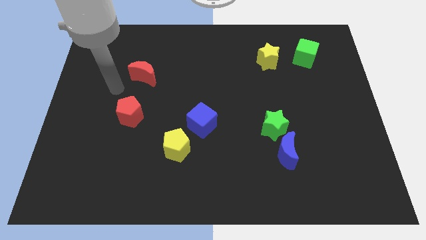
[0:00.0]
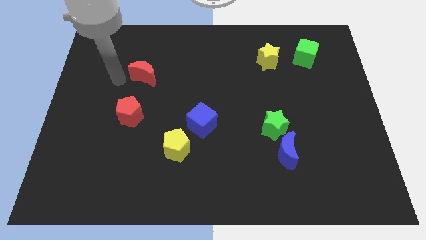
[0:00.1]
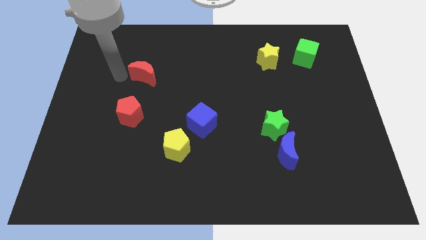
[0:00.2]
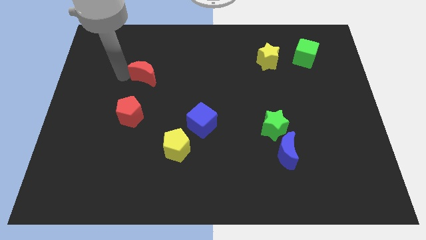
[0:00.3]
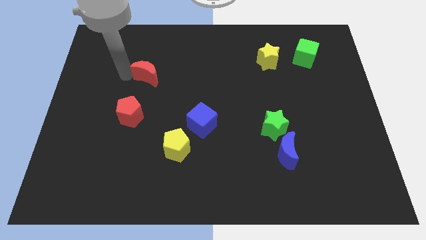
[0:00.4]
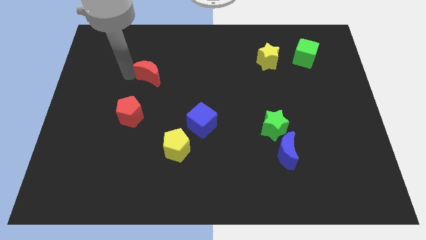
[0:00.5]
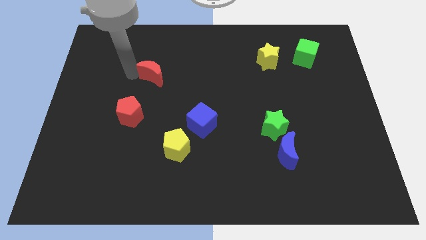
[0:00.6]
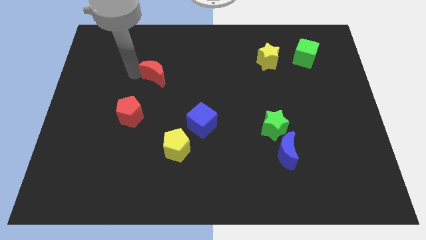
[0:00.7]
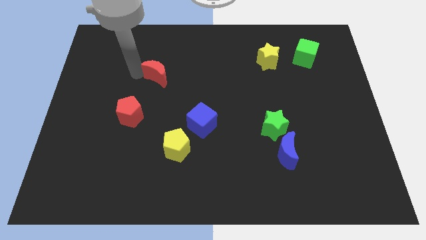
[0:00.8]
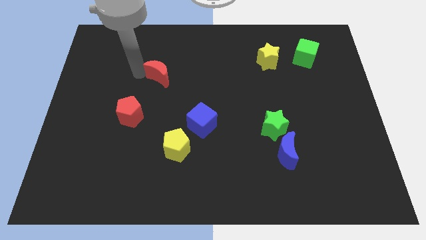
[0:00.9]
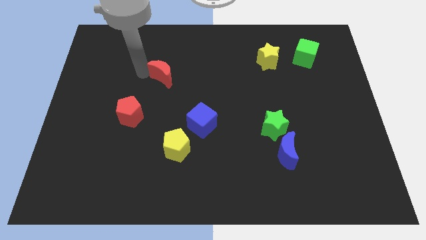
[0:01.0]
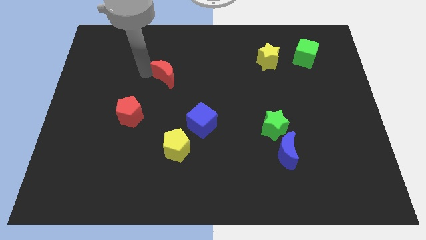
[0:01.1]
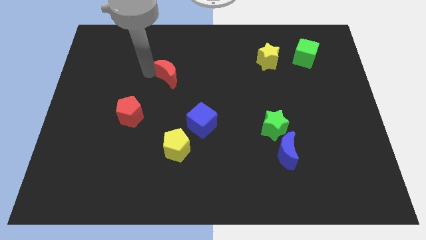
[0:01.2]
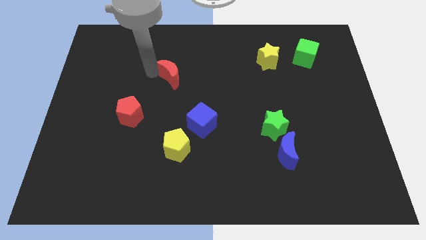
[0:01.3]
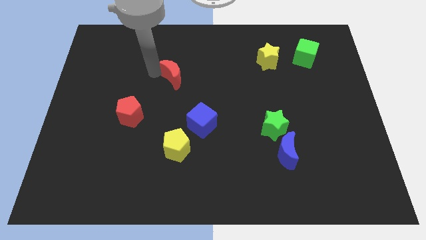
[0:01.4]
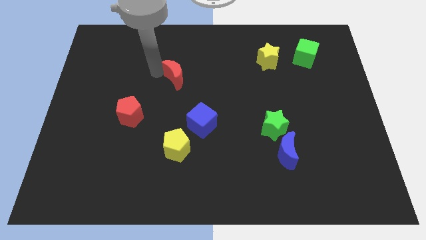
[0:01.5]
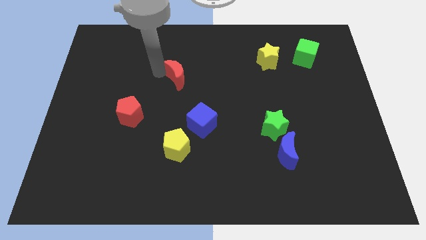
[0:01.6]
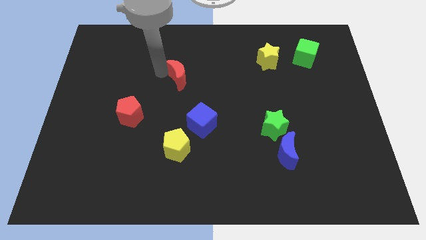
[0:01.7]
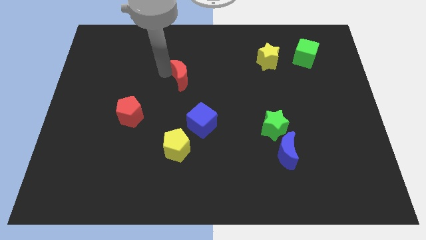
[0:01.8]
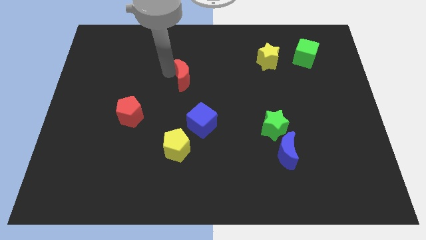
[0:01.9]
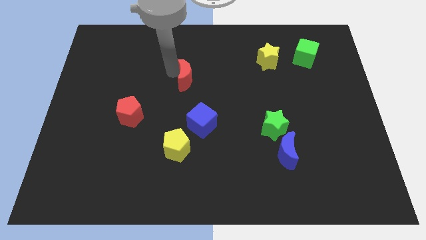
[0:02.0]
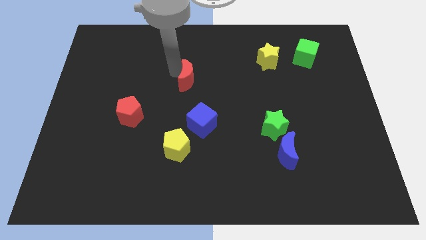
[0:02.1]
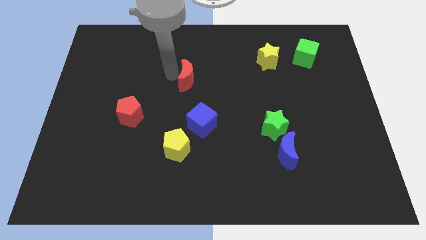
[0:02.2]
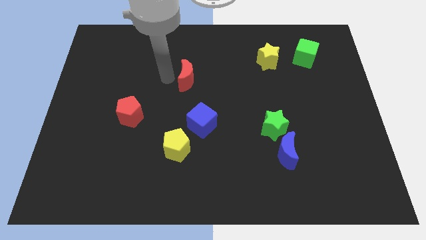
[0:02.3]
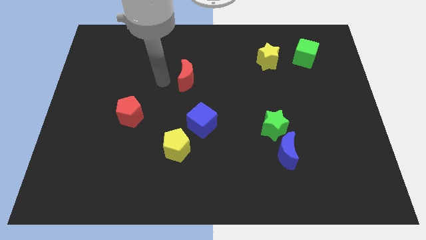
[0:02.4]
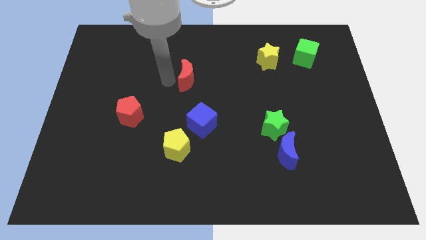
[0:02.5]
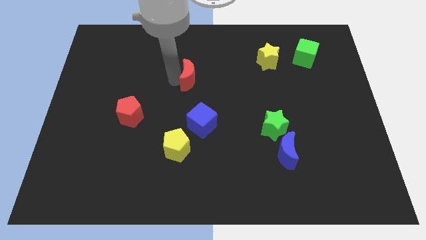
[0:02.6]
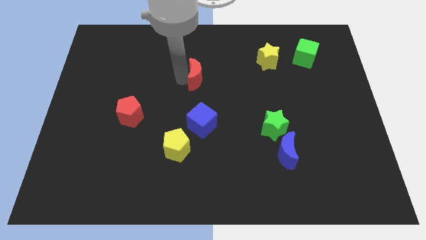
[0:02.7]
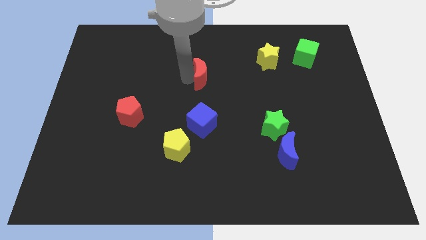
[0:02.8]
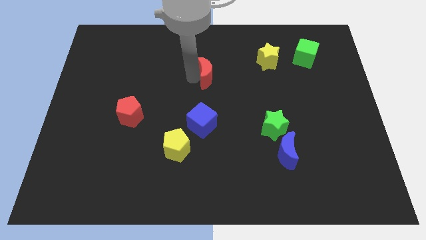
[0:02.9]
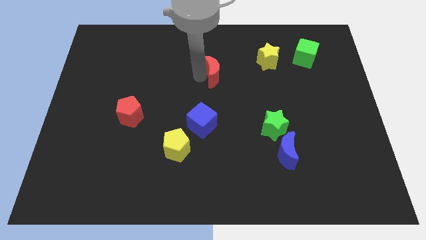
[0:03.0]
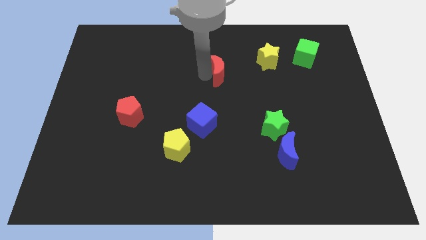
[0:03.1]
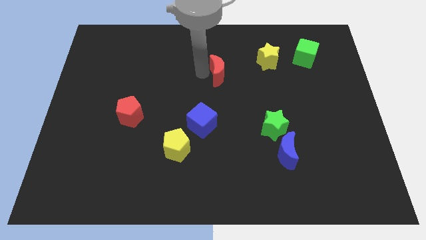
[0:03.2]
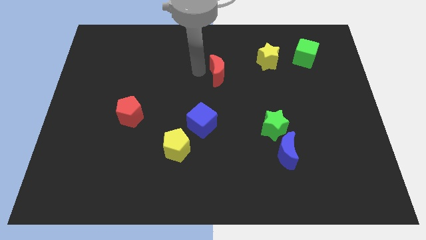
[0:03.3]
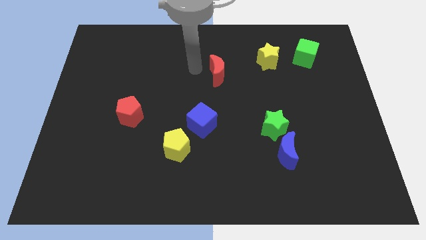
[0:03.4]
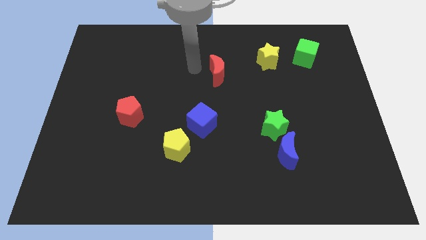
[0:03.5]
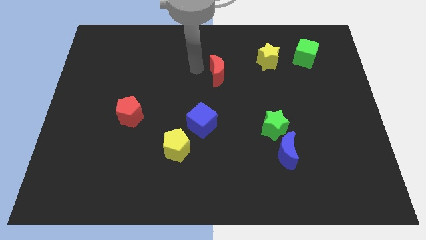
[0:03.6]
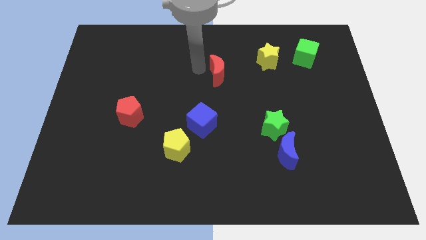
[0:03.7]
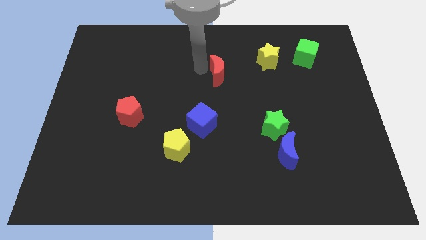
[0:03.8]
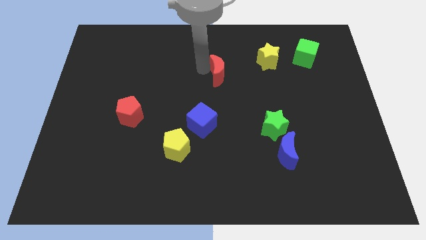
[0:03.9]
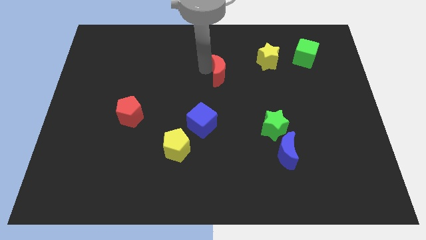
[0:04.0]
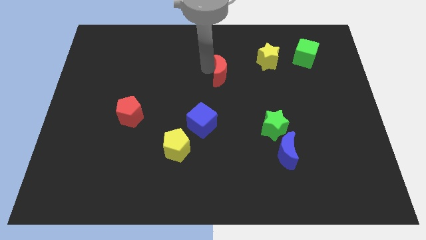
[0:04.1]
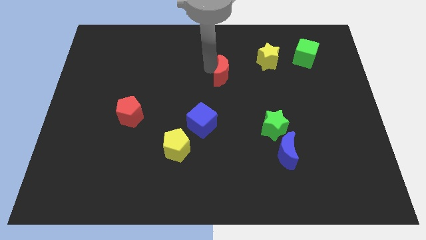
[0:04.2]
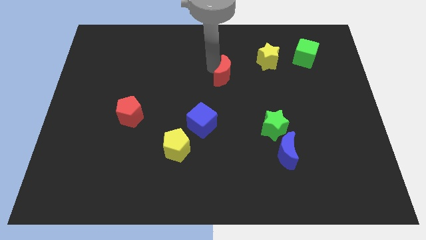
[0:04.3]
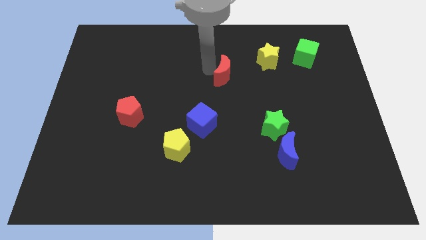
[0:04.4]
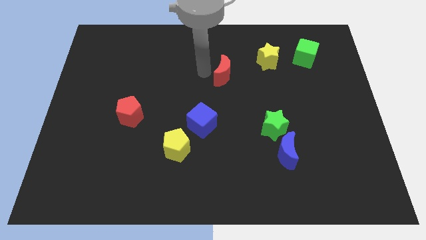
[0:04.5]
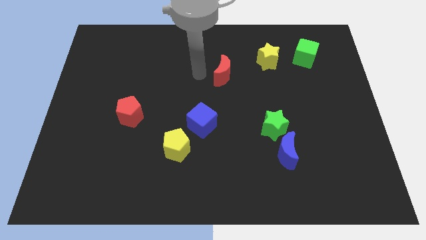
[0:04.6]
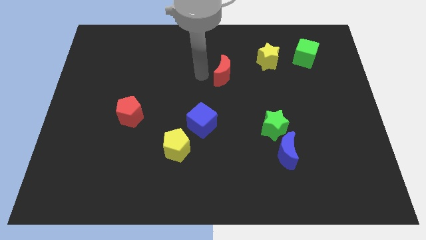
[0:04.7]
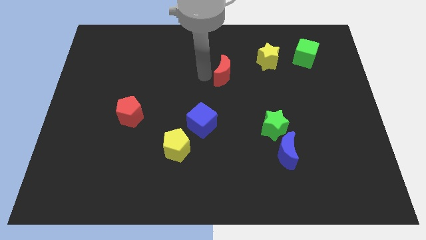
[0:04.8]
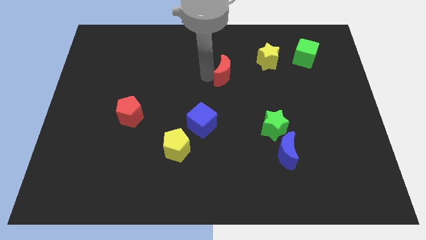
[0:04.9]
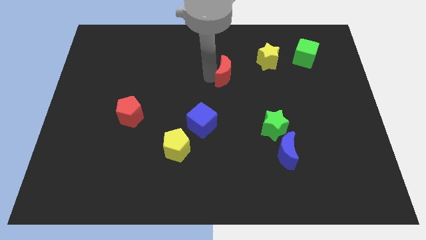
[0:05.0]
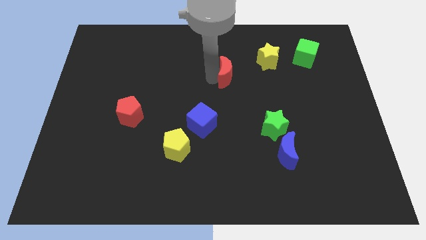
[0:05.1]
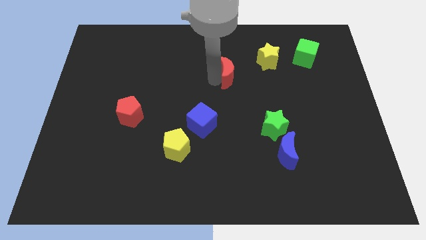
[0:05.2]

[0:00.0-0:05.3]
put the red moon to the bottom left side of the yellow star

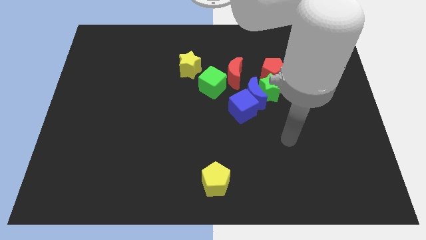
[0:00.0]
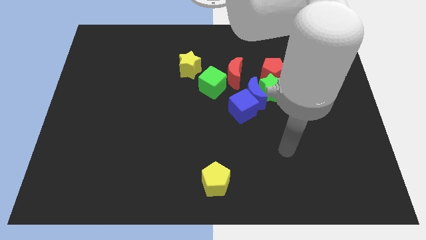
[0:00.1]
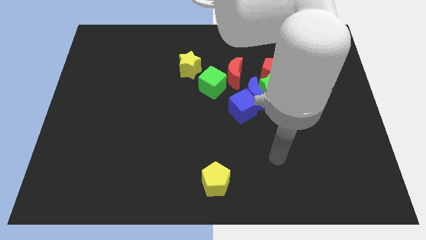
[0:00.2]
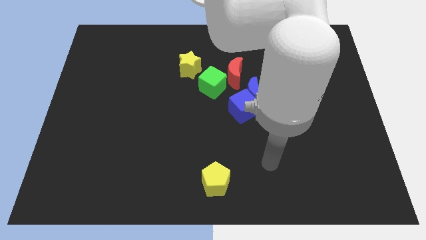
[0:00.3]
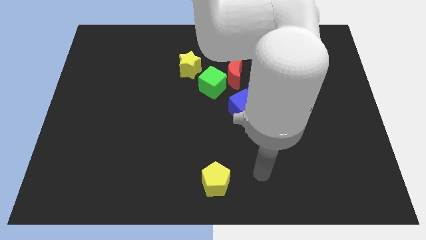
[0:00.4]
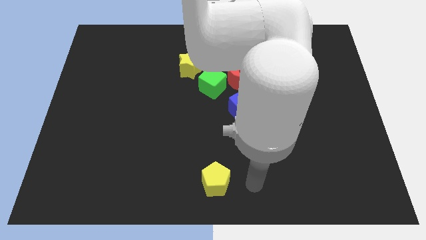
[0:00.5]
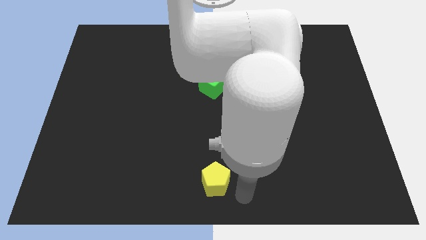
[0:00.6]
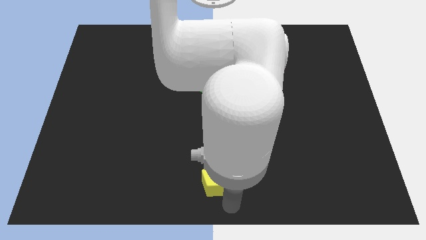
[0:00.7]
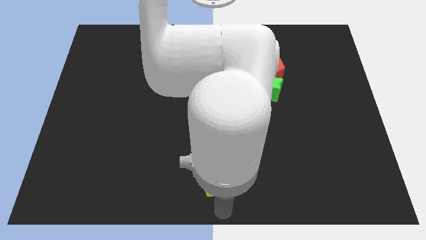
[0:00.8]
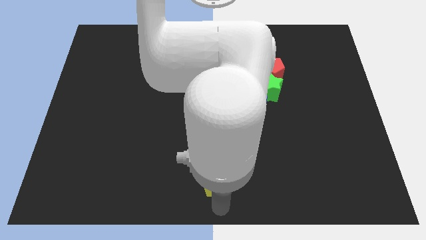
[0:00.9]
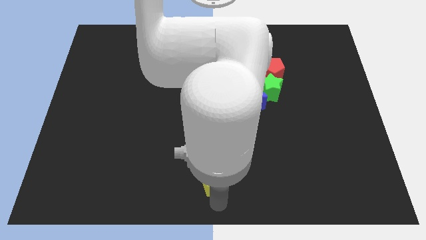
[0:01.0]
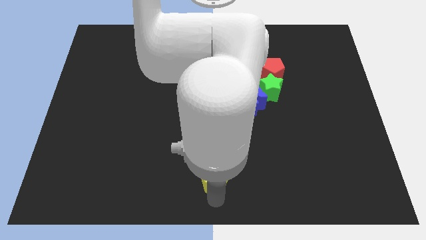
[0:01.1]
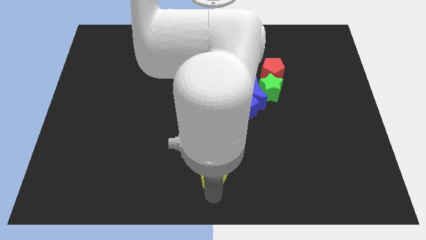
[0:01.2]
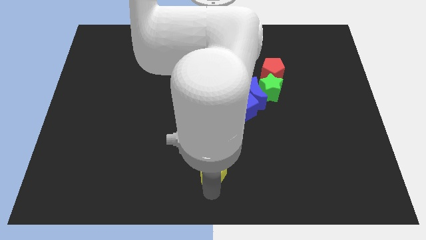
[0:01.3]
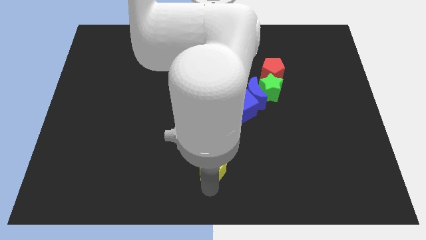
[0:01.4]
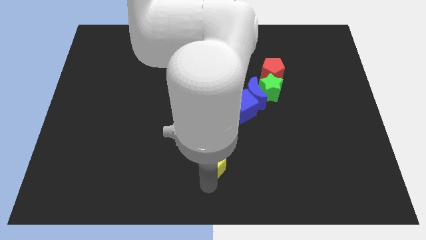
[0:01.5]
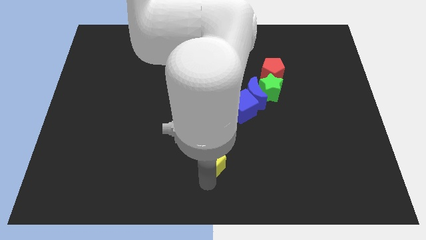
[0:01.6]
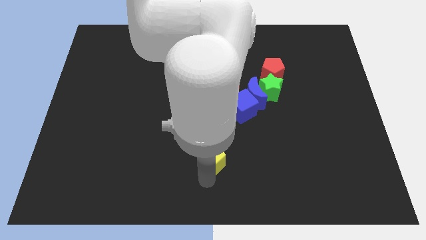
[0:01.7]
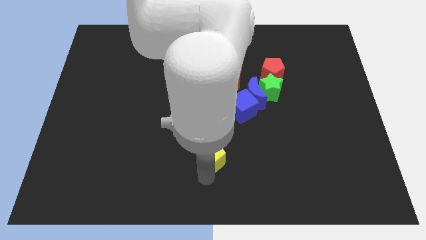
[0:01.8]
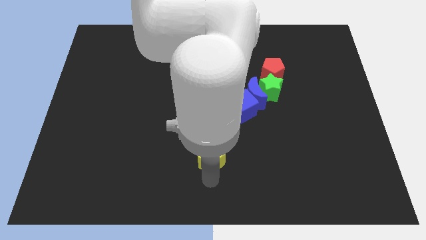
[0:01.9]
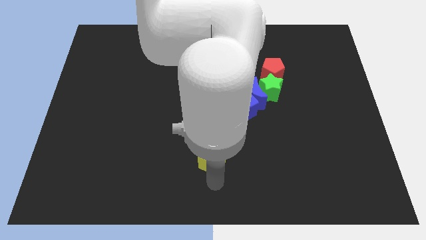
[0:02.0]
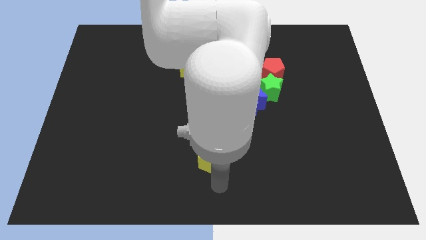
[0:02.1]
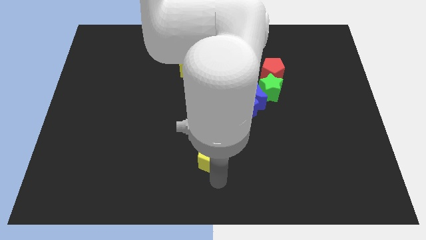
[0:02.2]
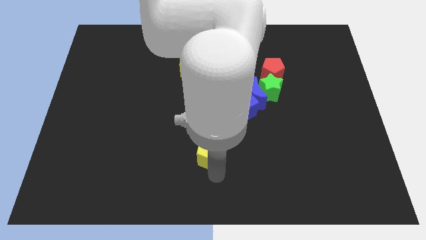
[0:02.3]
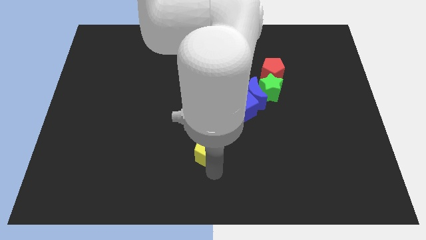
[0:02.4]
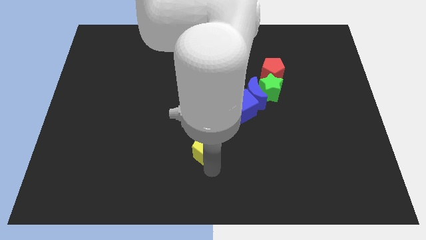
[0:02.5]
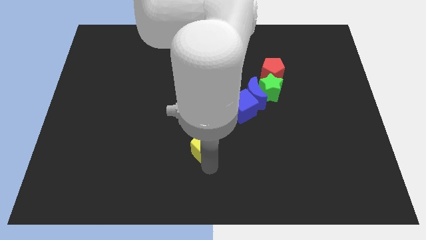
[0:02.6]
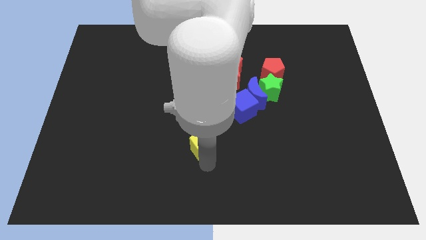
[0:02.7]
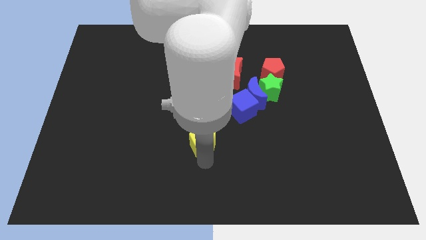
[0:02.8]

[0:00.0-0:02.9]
put the yellow pentagon to the bottom left of the blue cube
